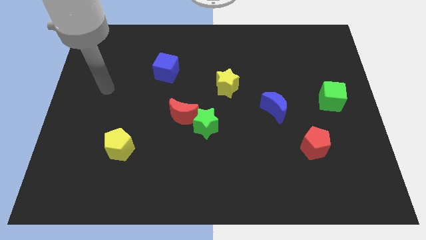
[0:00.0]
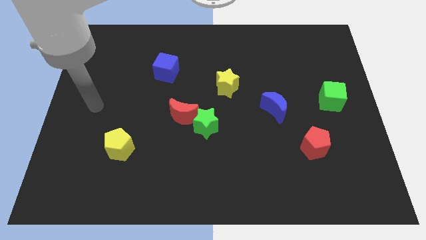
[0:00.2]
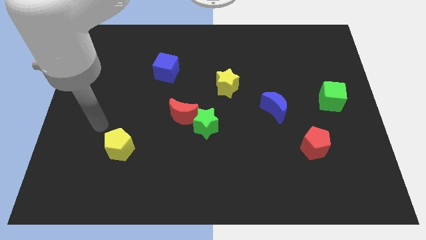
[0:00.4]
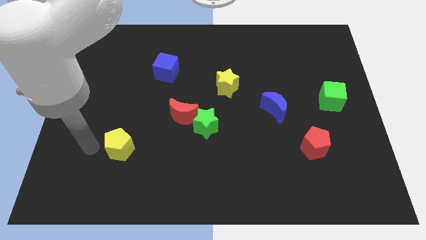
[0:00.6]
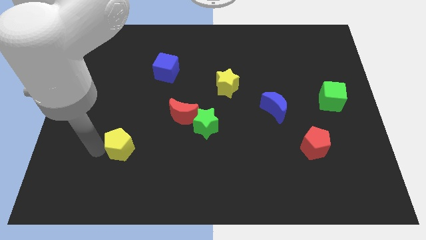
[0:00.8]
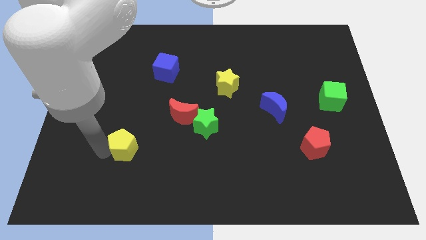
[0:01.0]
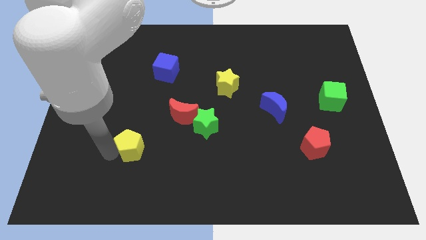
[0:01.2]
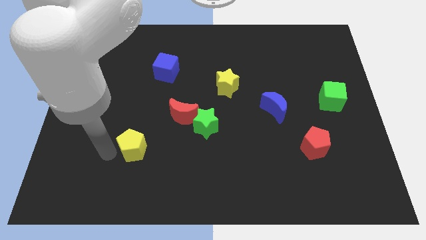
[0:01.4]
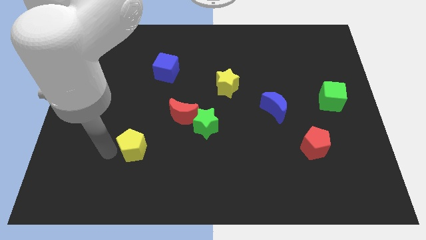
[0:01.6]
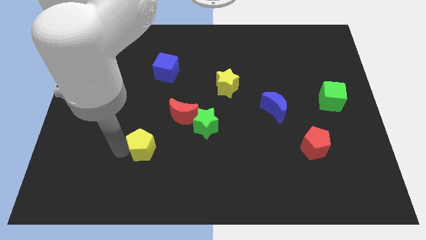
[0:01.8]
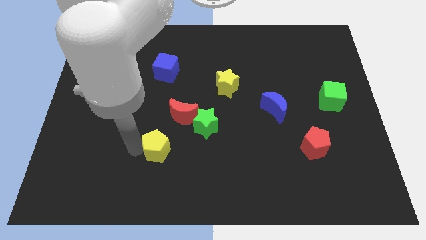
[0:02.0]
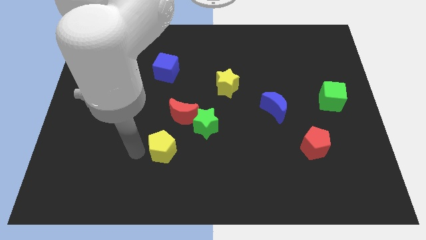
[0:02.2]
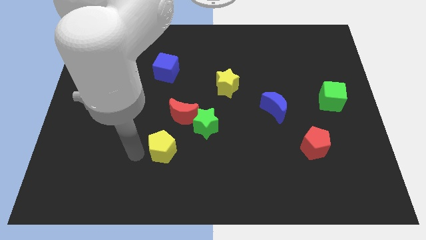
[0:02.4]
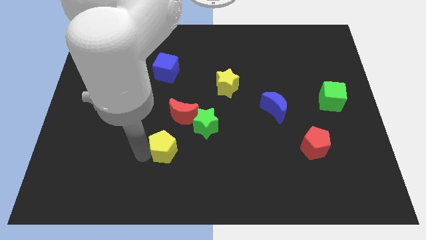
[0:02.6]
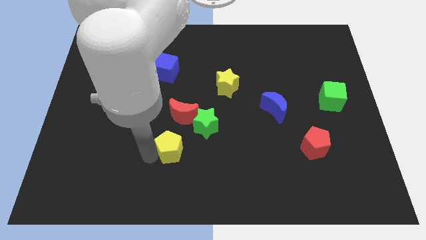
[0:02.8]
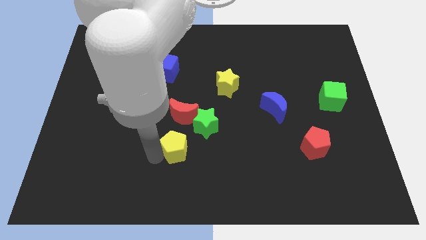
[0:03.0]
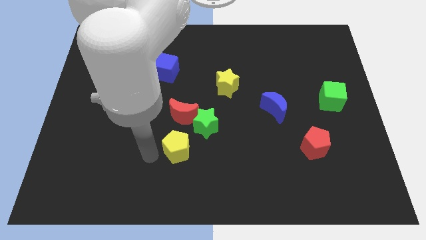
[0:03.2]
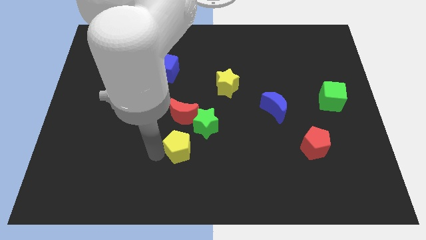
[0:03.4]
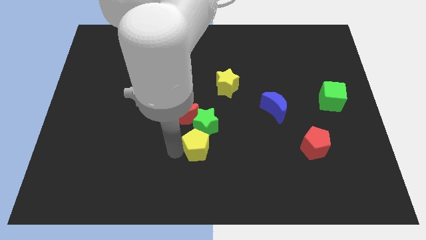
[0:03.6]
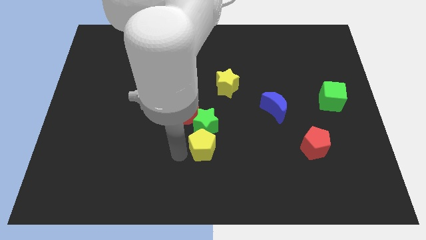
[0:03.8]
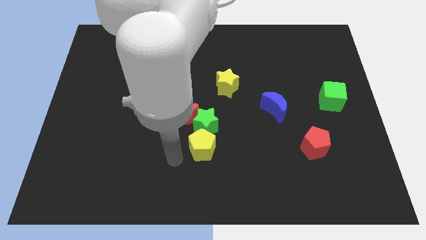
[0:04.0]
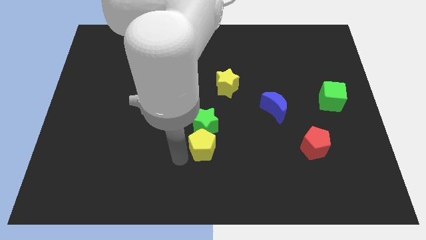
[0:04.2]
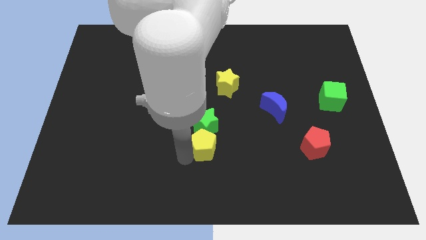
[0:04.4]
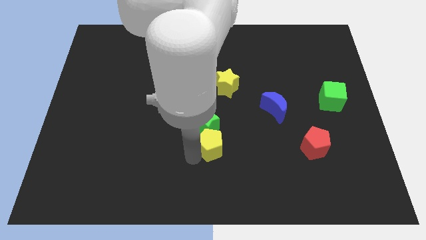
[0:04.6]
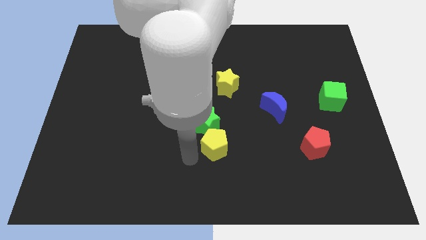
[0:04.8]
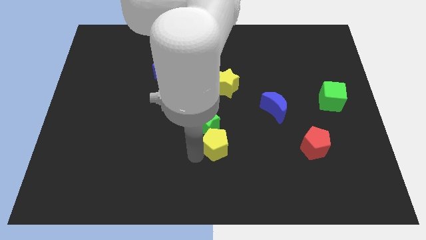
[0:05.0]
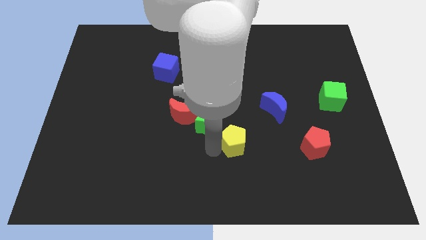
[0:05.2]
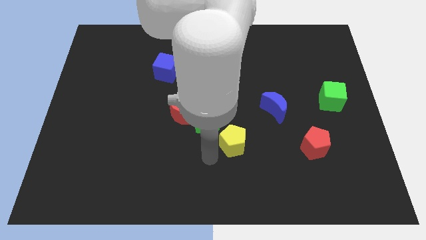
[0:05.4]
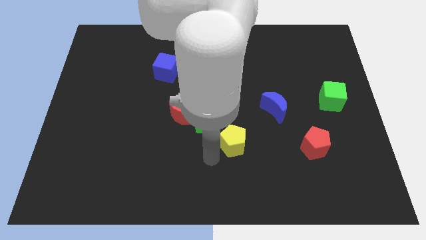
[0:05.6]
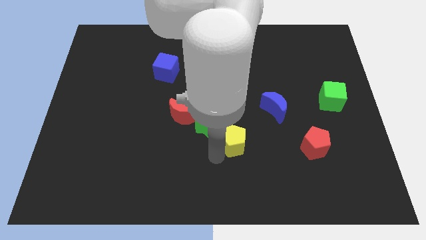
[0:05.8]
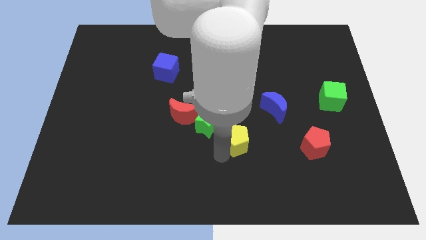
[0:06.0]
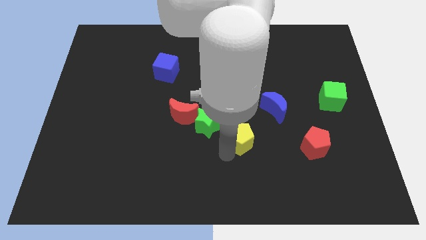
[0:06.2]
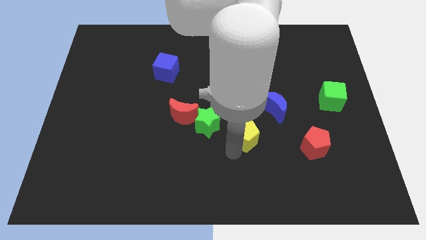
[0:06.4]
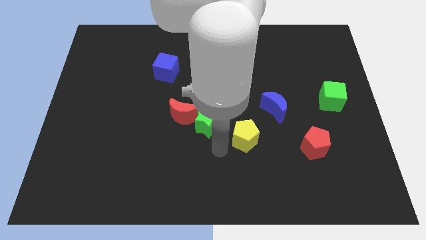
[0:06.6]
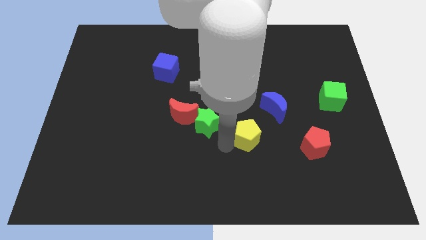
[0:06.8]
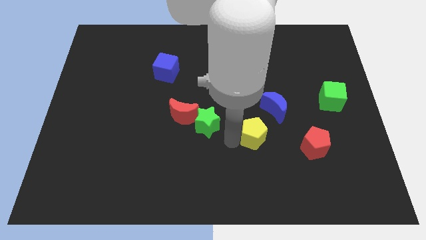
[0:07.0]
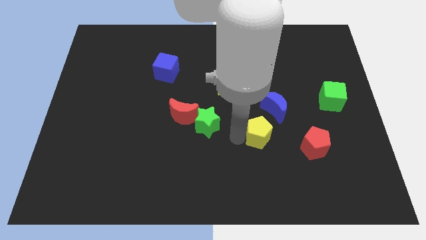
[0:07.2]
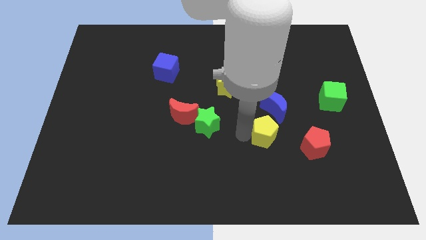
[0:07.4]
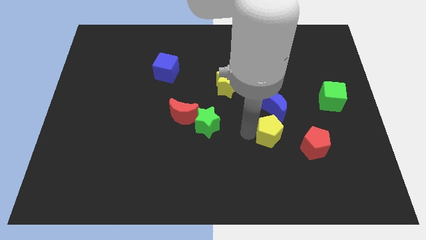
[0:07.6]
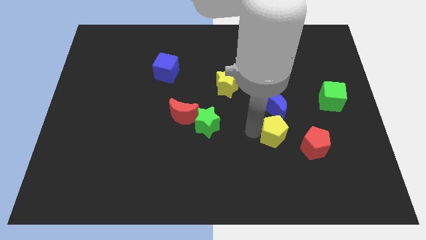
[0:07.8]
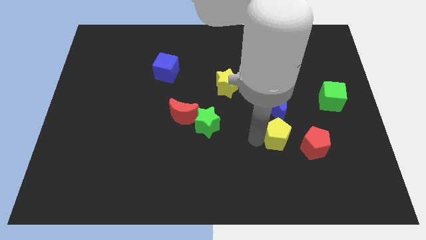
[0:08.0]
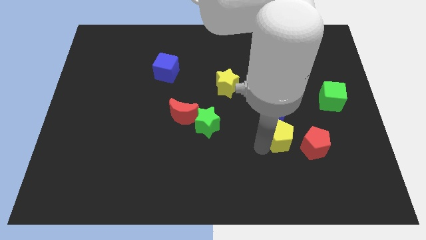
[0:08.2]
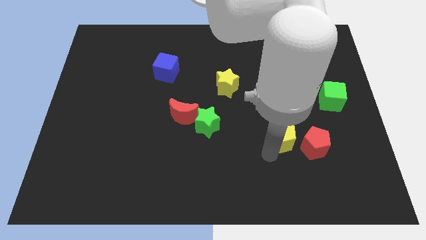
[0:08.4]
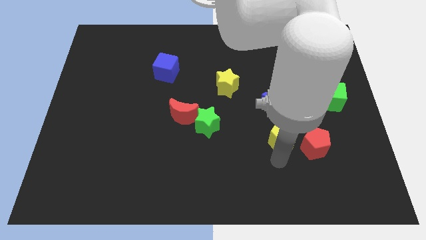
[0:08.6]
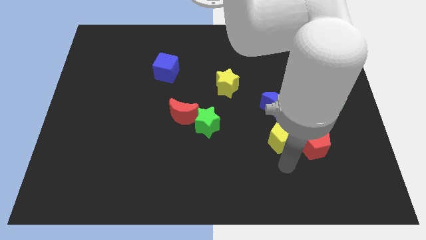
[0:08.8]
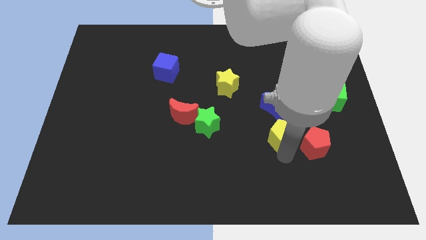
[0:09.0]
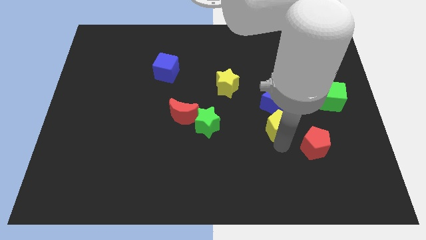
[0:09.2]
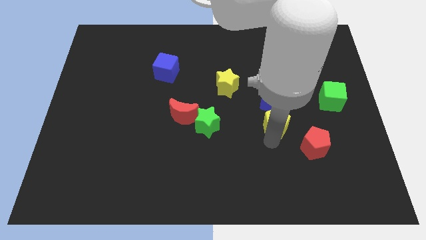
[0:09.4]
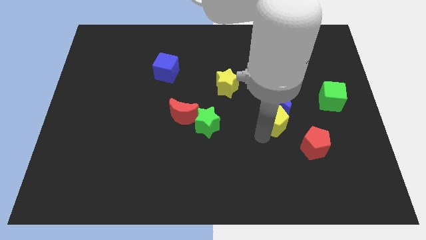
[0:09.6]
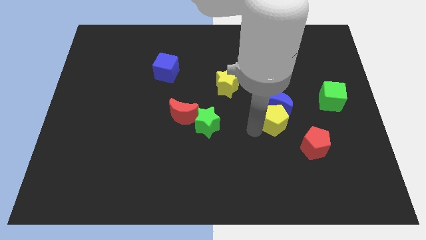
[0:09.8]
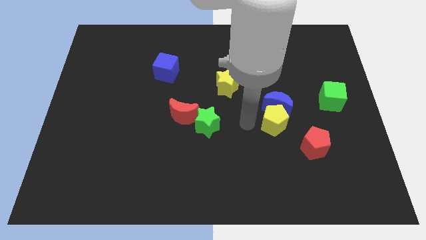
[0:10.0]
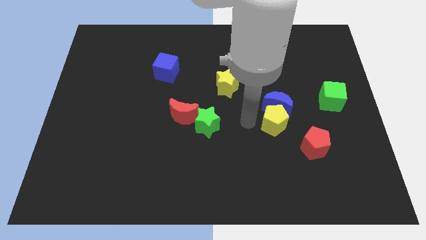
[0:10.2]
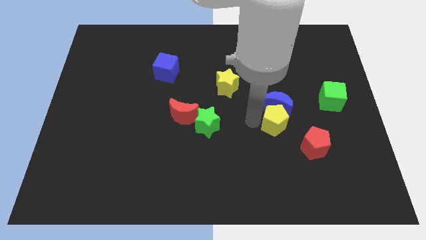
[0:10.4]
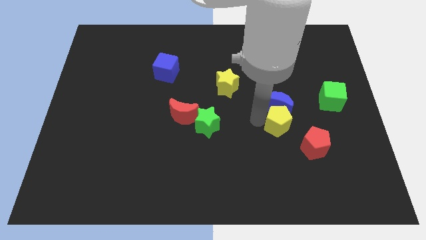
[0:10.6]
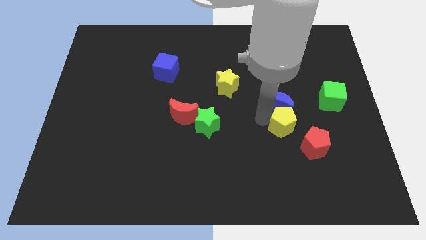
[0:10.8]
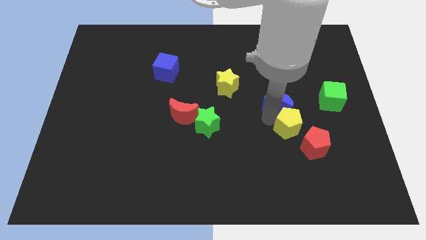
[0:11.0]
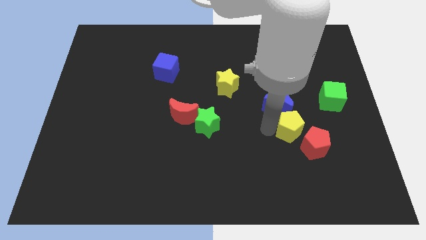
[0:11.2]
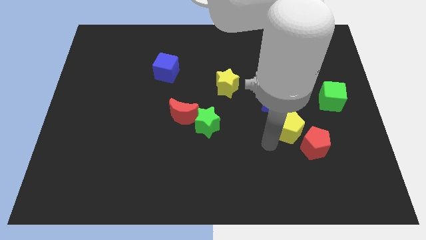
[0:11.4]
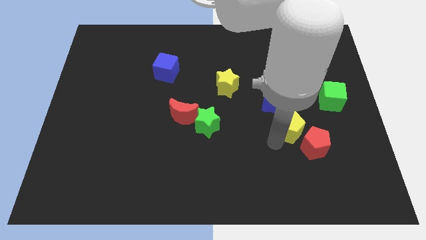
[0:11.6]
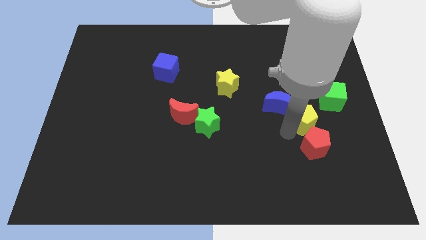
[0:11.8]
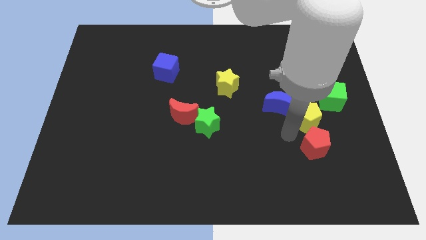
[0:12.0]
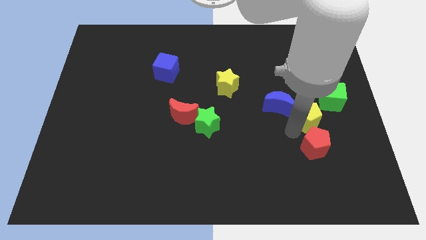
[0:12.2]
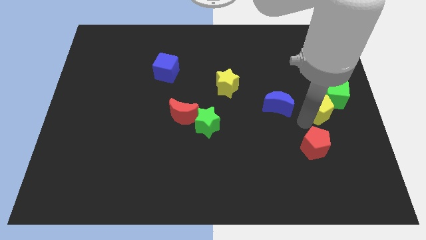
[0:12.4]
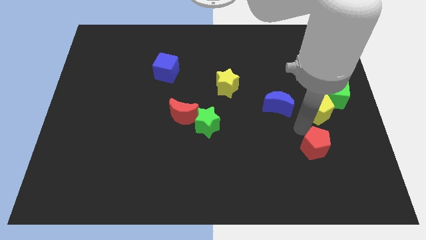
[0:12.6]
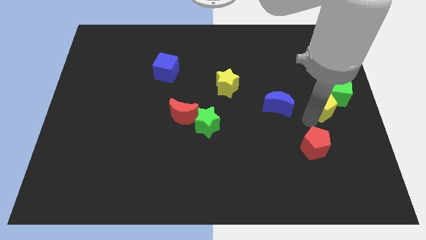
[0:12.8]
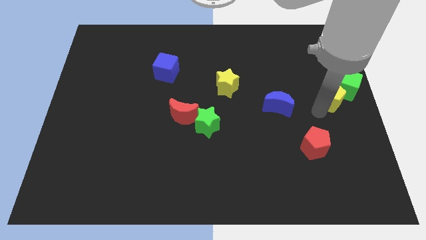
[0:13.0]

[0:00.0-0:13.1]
slide the yellow pentagon to the green cube

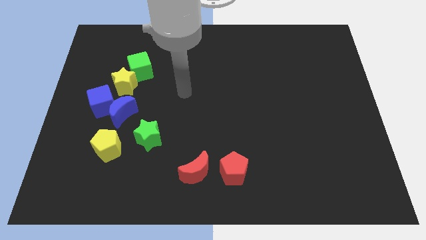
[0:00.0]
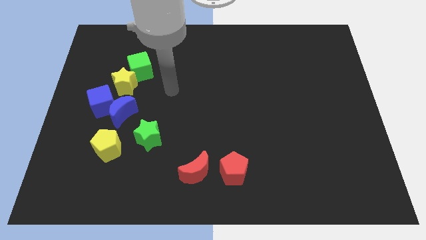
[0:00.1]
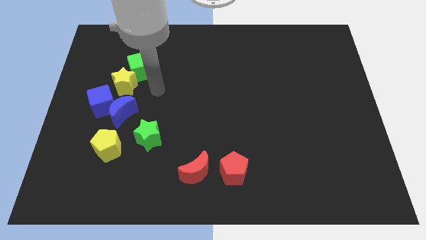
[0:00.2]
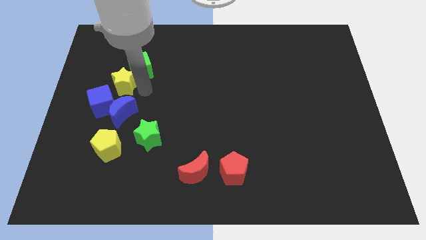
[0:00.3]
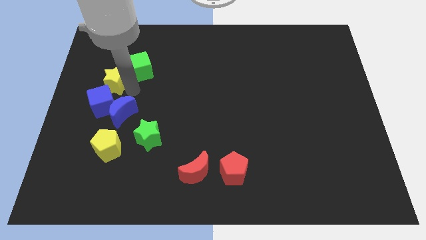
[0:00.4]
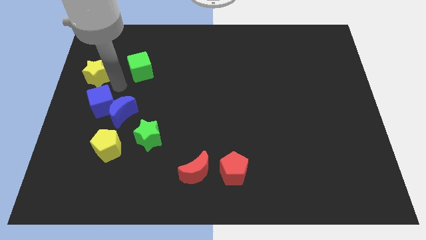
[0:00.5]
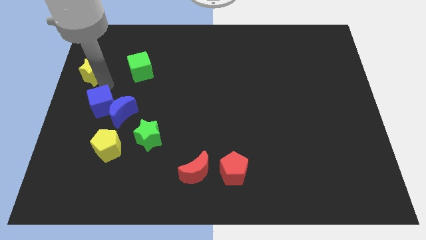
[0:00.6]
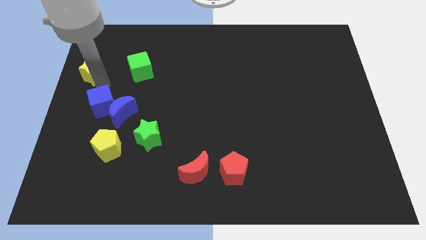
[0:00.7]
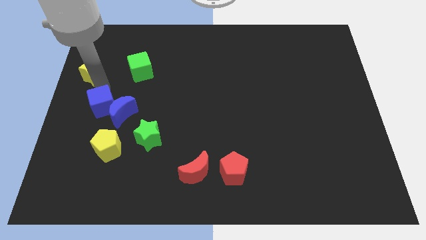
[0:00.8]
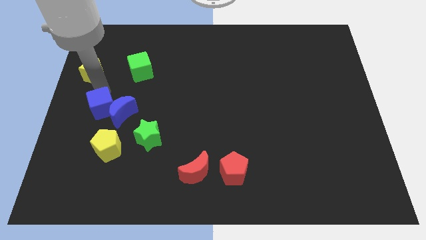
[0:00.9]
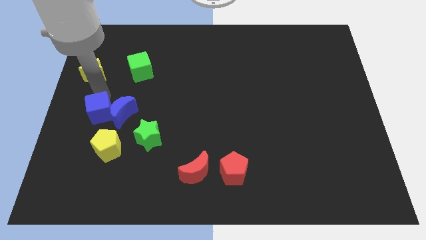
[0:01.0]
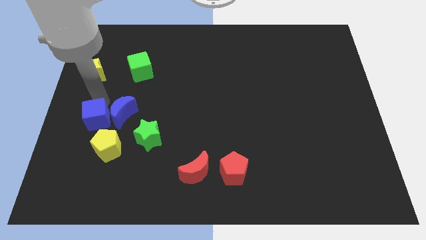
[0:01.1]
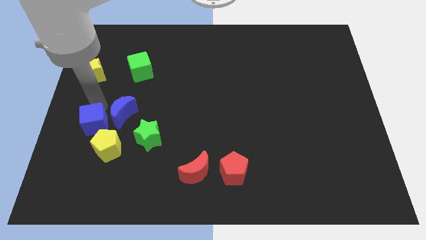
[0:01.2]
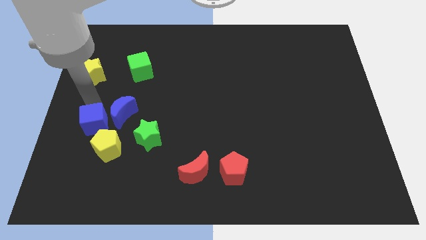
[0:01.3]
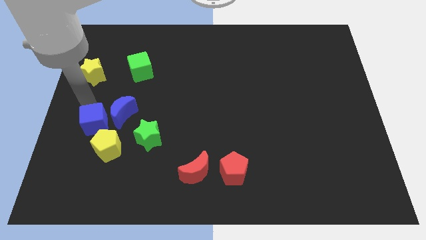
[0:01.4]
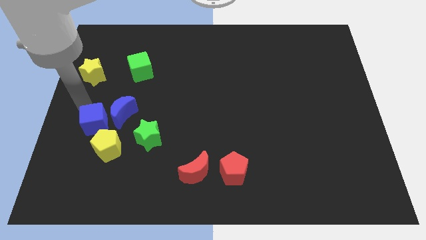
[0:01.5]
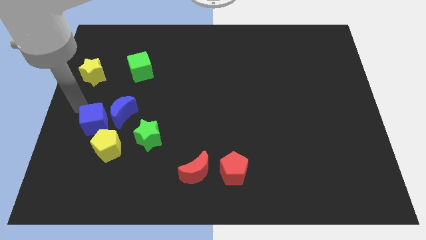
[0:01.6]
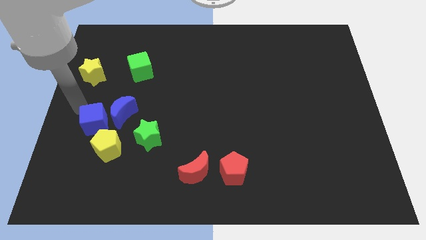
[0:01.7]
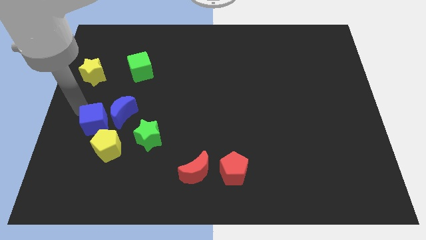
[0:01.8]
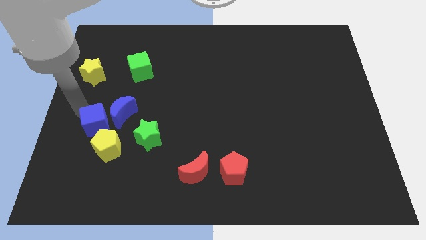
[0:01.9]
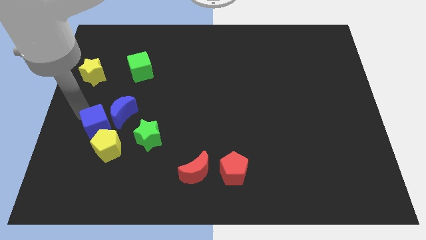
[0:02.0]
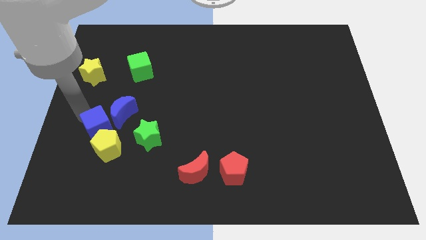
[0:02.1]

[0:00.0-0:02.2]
slide the blue cube towards the yellow pentagon
